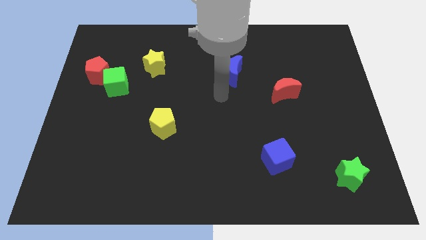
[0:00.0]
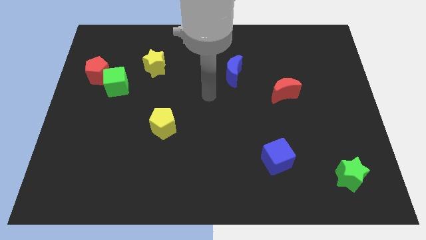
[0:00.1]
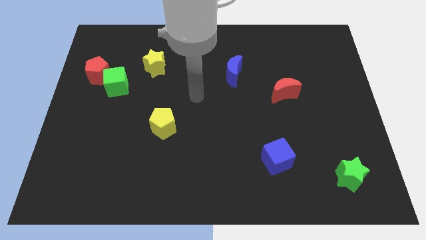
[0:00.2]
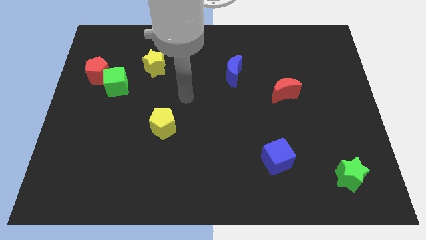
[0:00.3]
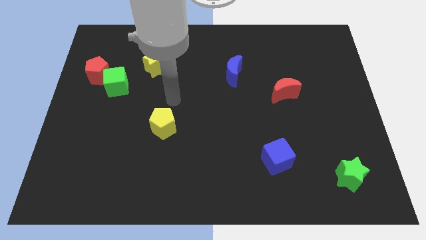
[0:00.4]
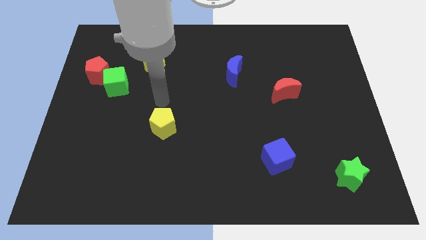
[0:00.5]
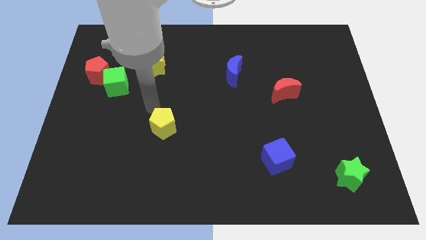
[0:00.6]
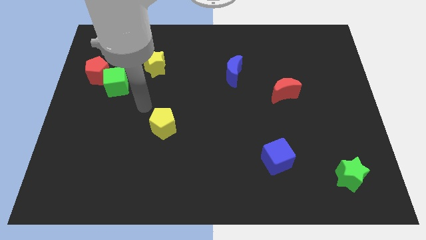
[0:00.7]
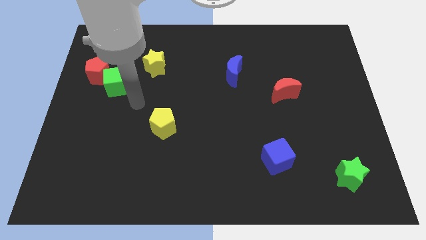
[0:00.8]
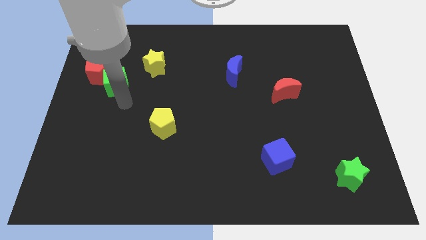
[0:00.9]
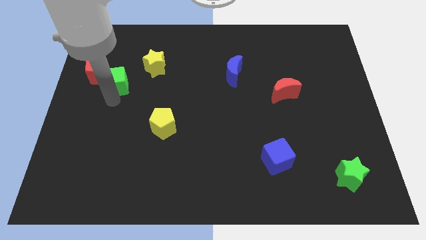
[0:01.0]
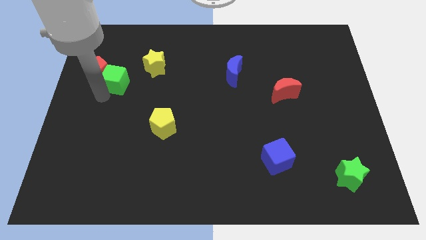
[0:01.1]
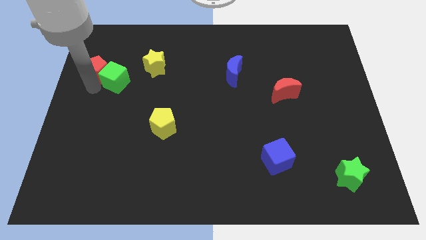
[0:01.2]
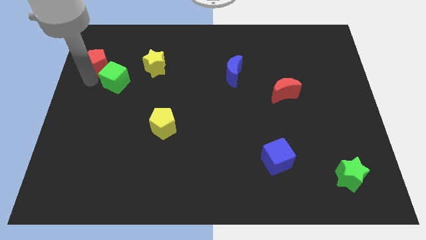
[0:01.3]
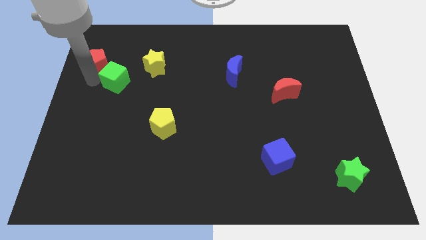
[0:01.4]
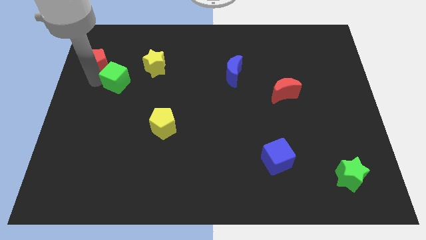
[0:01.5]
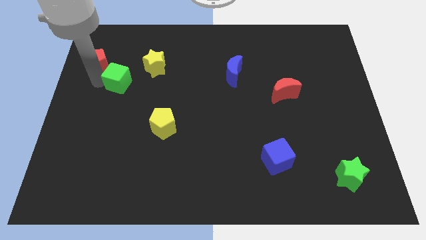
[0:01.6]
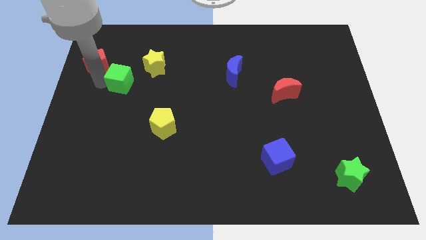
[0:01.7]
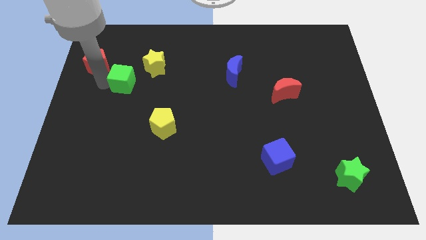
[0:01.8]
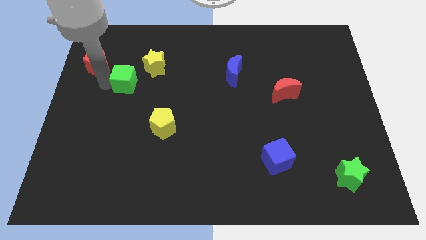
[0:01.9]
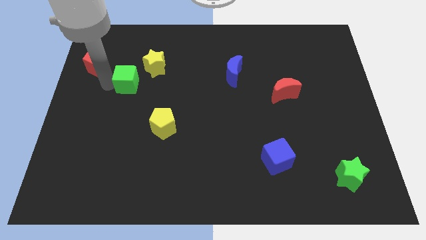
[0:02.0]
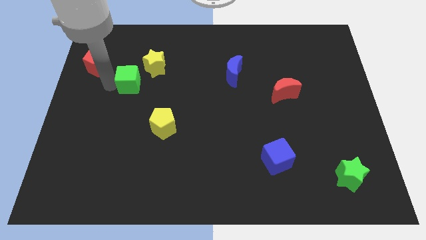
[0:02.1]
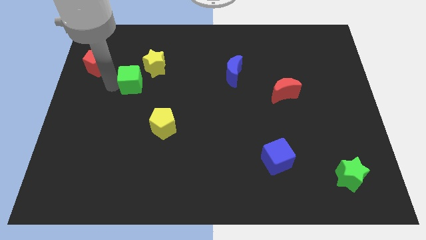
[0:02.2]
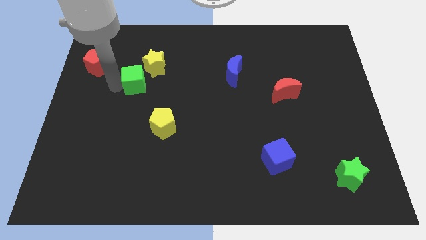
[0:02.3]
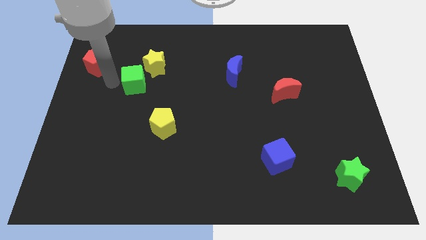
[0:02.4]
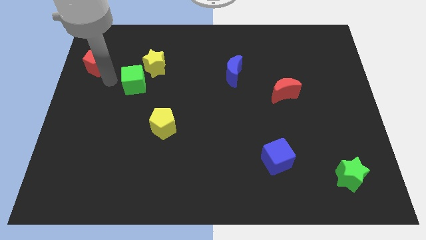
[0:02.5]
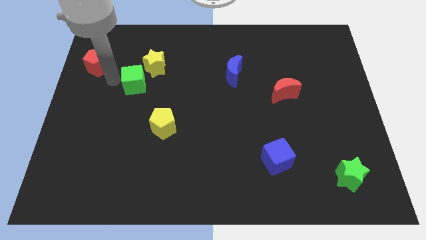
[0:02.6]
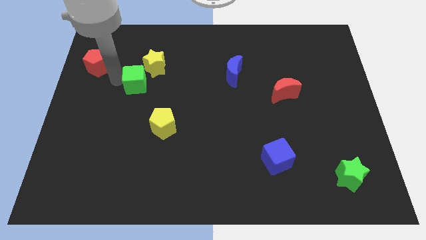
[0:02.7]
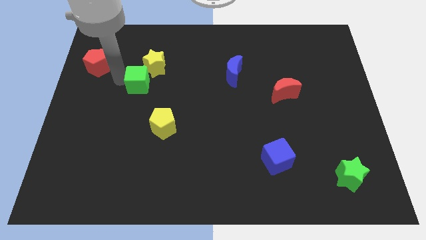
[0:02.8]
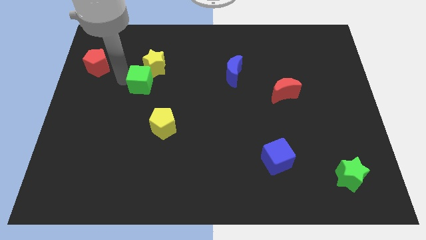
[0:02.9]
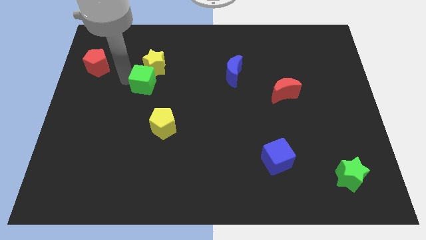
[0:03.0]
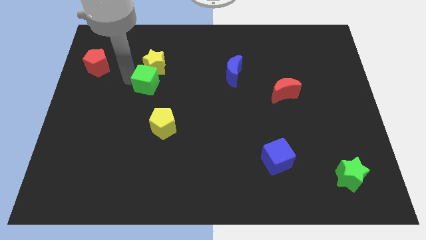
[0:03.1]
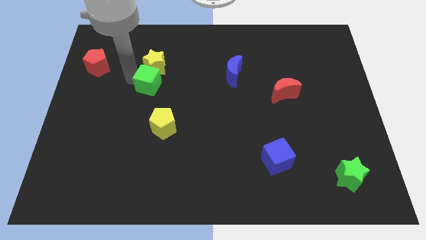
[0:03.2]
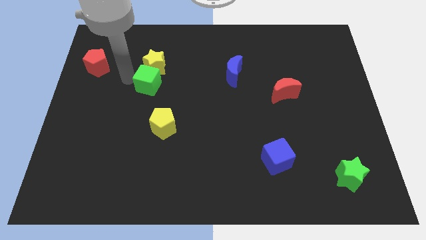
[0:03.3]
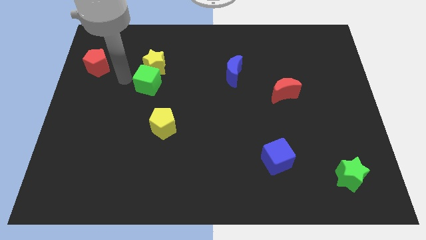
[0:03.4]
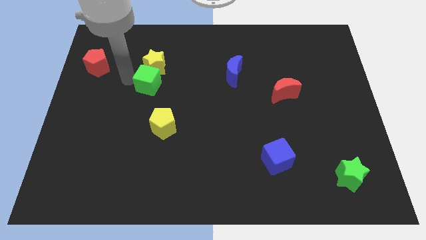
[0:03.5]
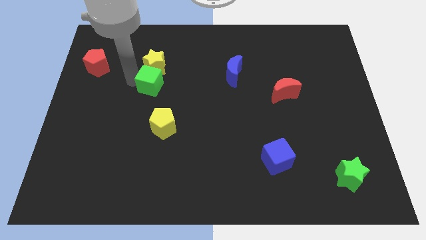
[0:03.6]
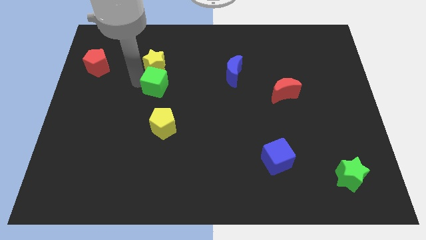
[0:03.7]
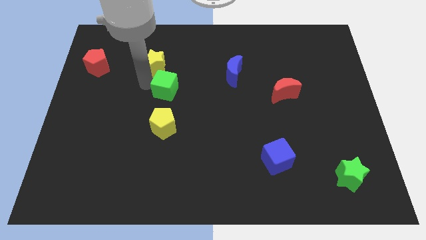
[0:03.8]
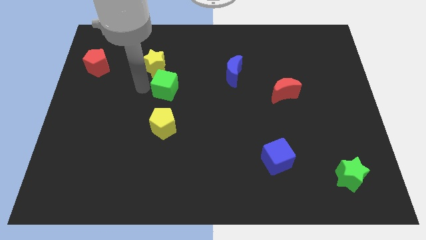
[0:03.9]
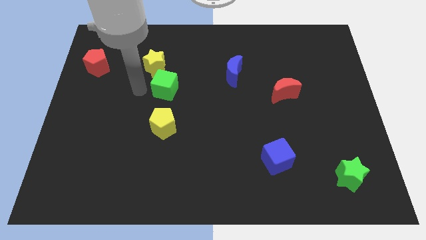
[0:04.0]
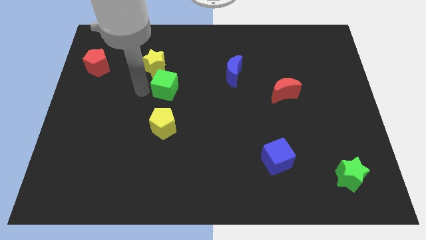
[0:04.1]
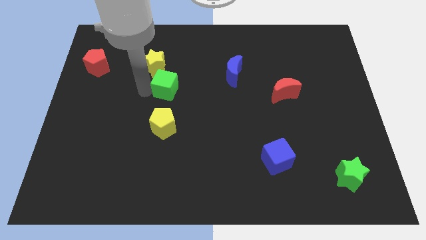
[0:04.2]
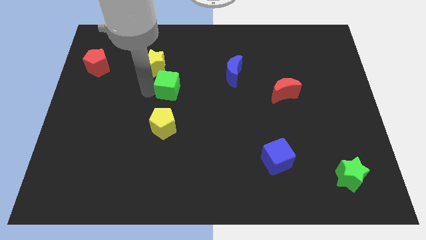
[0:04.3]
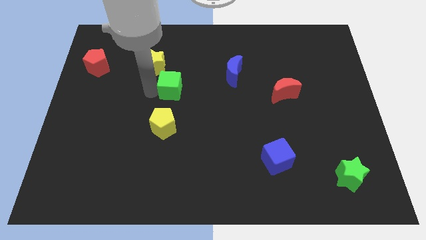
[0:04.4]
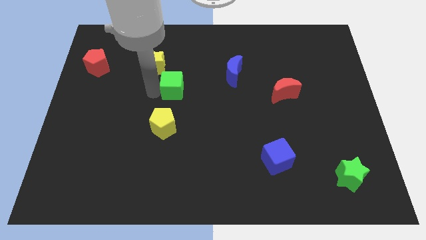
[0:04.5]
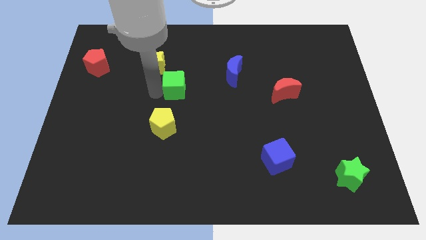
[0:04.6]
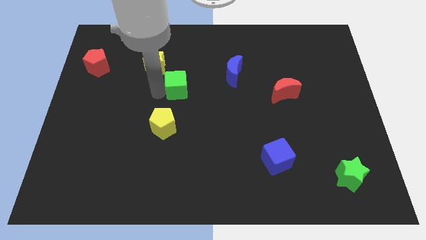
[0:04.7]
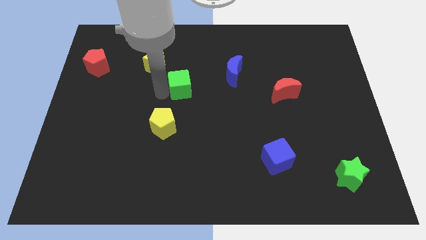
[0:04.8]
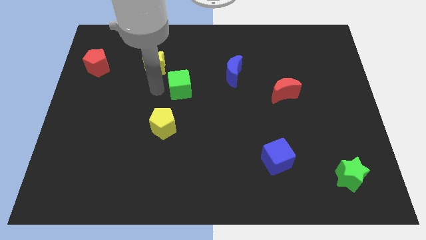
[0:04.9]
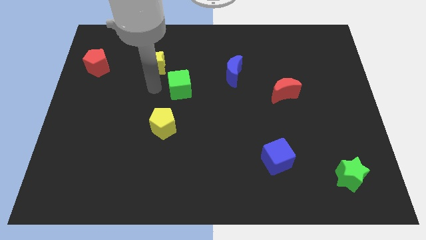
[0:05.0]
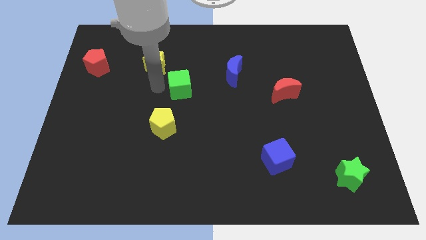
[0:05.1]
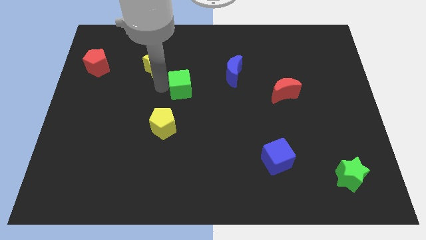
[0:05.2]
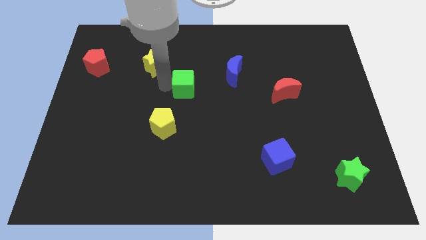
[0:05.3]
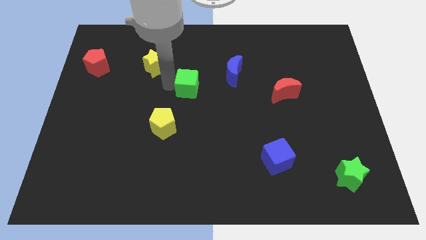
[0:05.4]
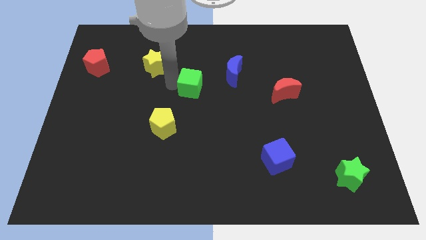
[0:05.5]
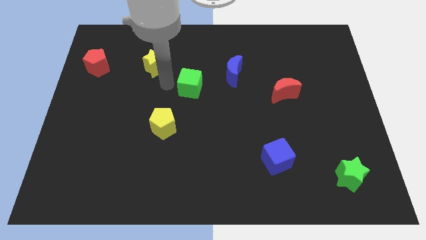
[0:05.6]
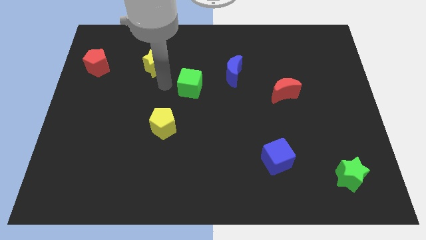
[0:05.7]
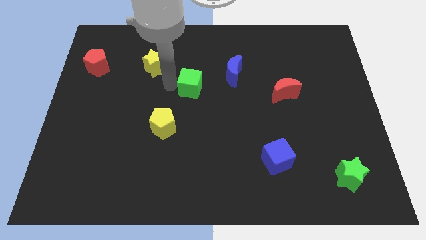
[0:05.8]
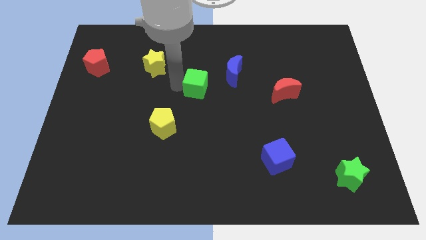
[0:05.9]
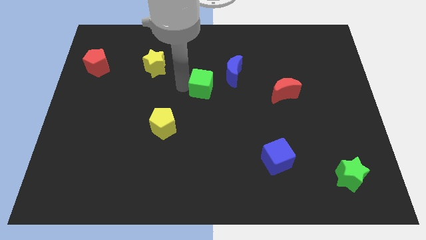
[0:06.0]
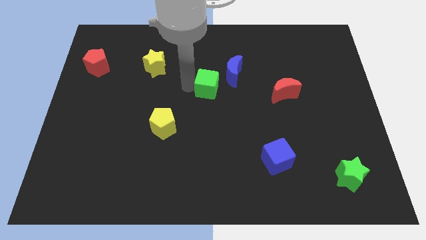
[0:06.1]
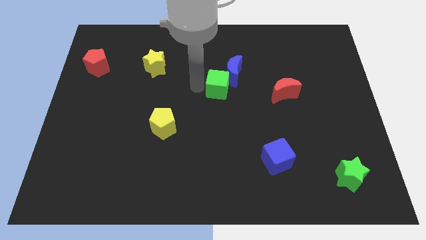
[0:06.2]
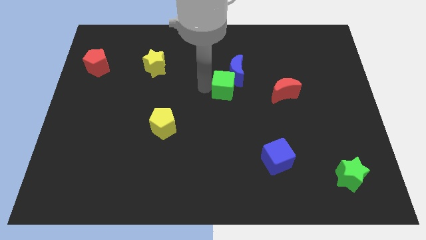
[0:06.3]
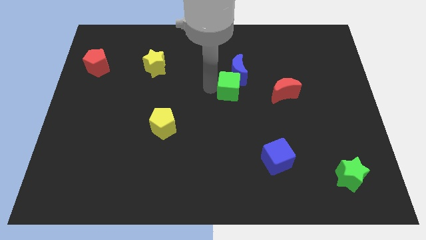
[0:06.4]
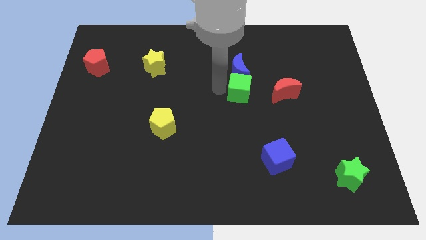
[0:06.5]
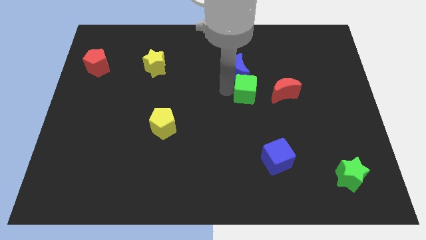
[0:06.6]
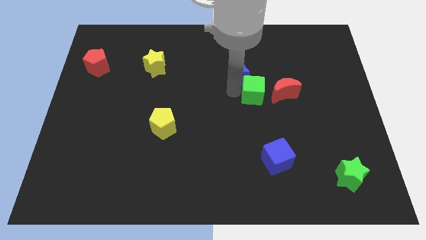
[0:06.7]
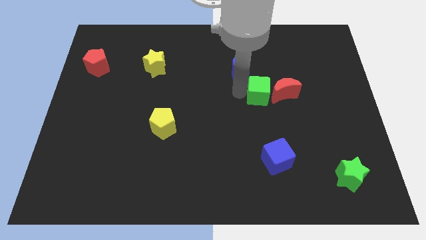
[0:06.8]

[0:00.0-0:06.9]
put the green cube towards the red moon

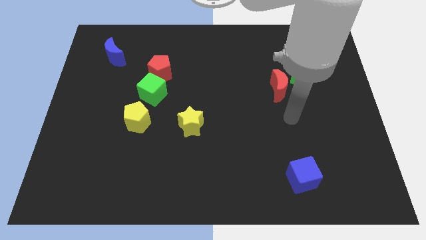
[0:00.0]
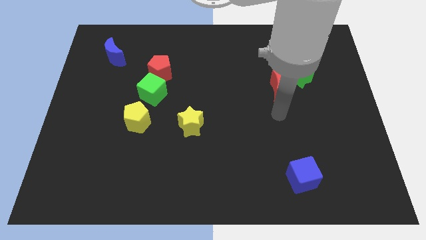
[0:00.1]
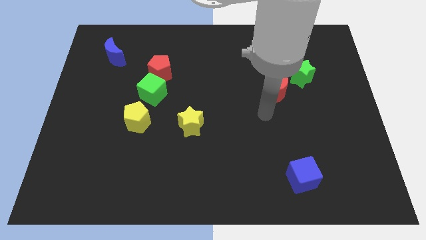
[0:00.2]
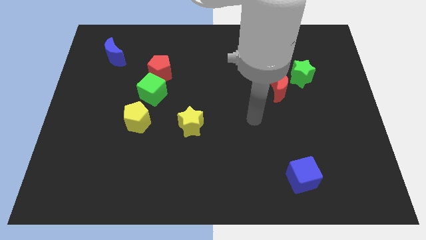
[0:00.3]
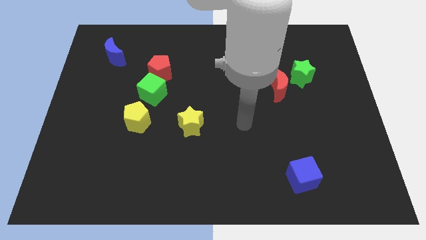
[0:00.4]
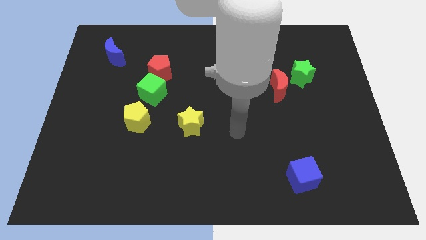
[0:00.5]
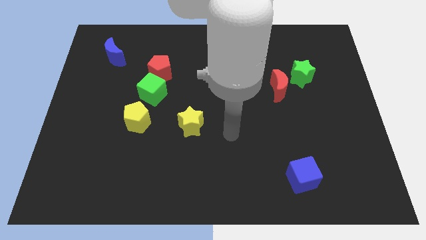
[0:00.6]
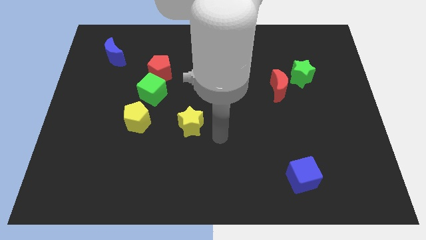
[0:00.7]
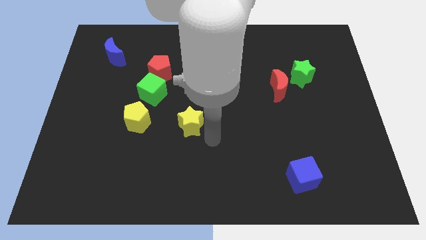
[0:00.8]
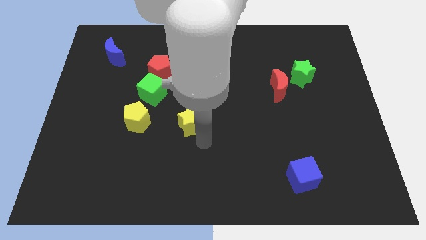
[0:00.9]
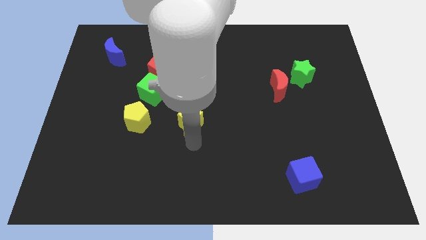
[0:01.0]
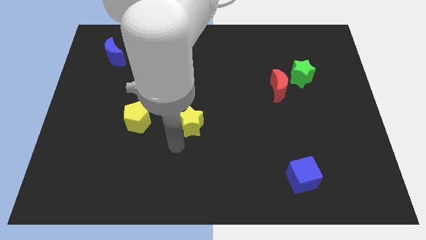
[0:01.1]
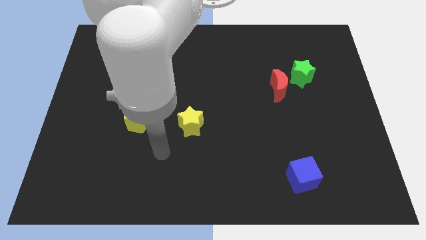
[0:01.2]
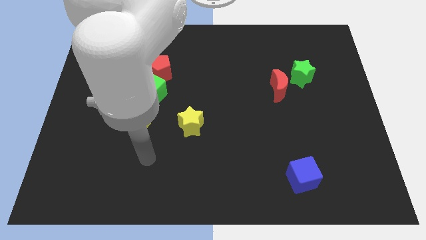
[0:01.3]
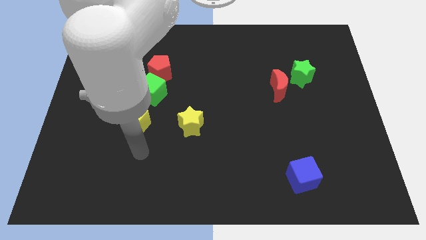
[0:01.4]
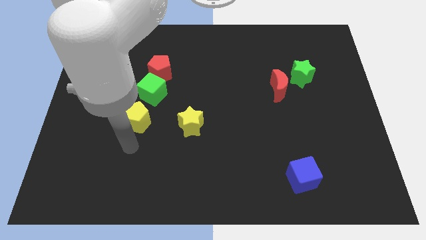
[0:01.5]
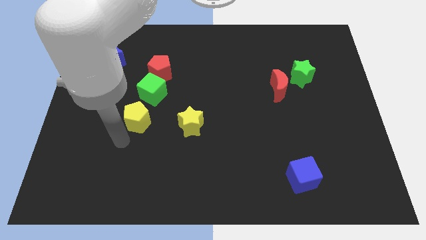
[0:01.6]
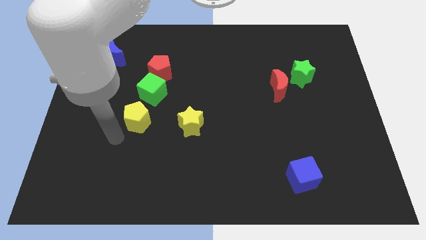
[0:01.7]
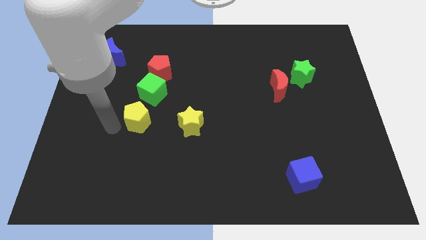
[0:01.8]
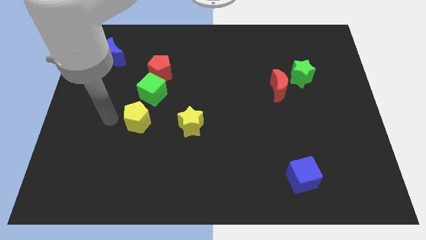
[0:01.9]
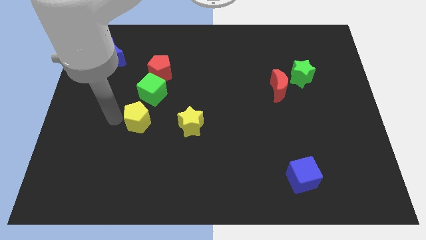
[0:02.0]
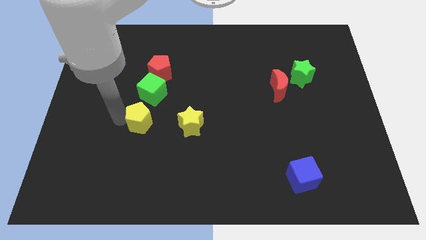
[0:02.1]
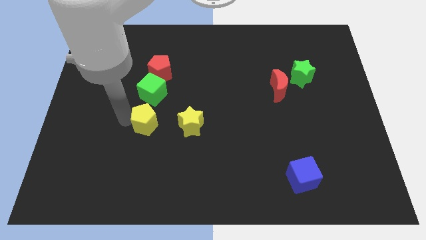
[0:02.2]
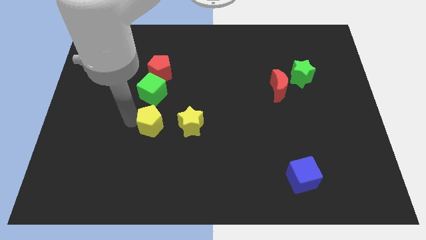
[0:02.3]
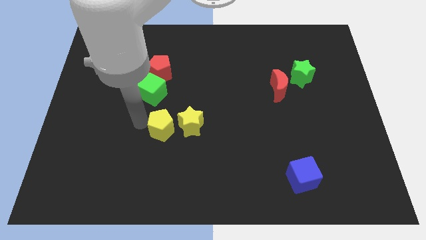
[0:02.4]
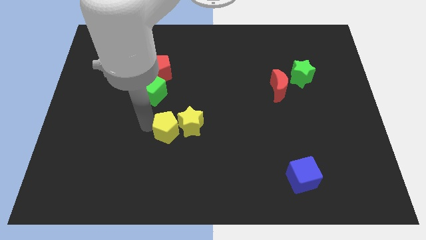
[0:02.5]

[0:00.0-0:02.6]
slide the yellow pentagon to the yellow star
